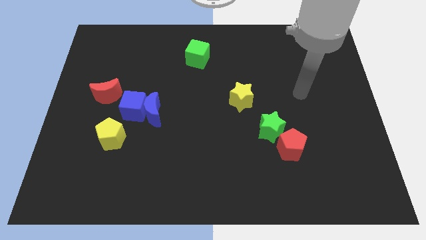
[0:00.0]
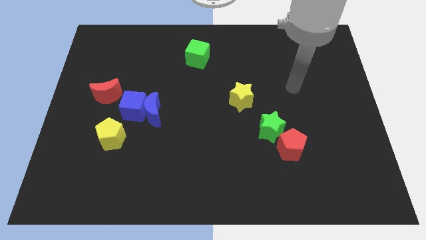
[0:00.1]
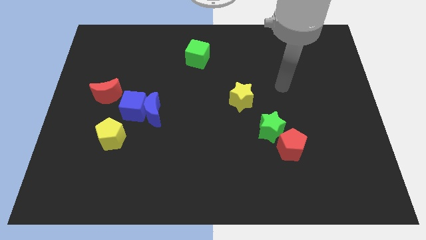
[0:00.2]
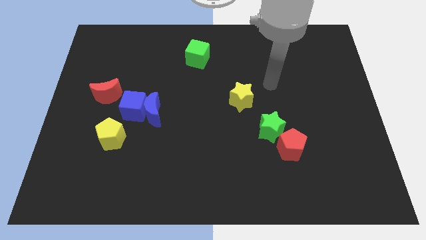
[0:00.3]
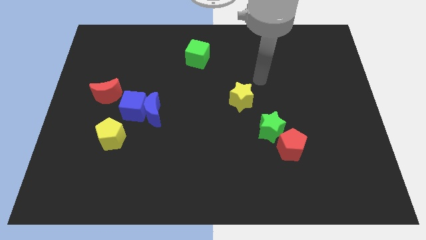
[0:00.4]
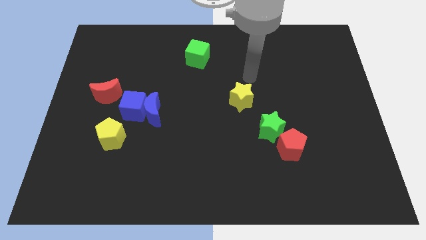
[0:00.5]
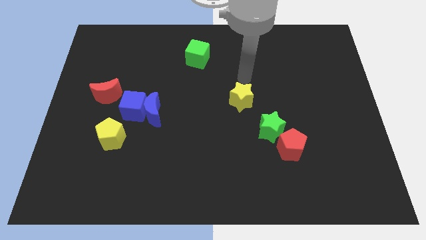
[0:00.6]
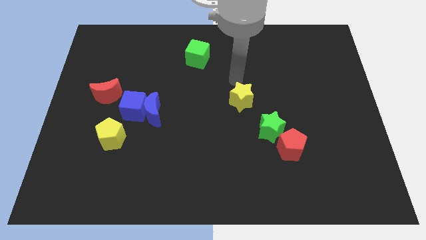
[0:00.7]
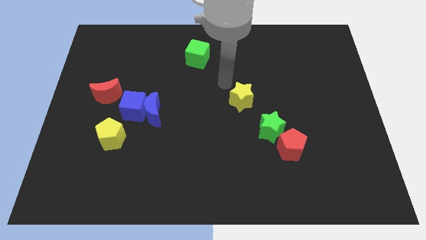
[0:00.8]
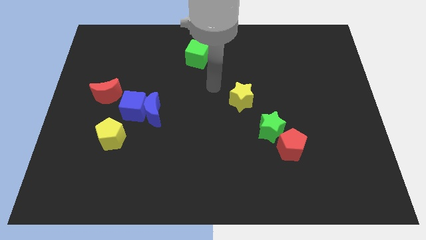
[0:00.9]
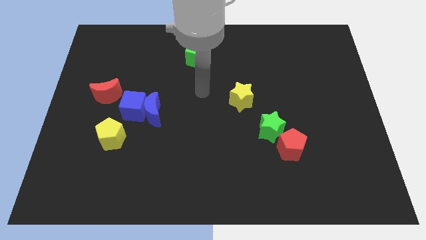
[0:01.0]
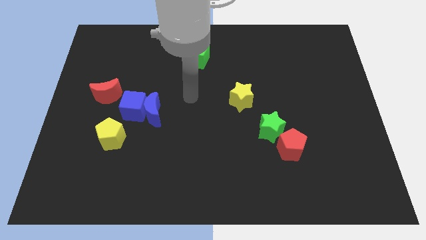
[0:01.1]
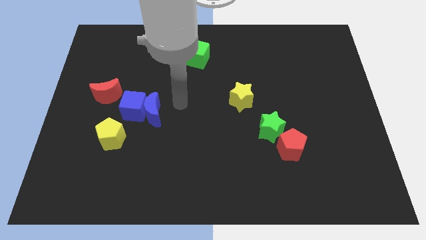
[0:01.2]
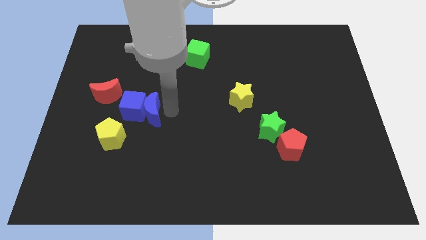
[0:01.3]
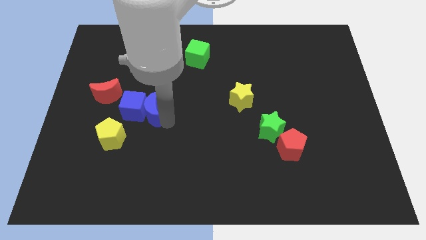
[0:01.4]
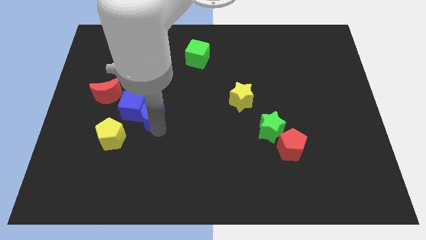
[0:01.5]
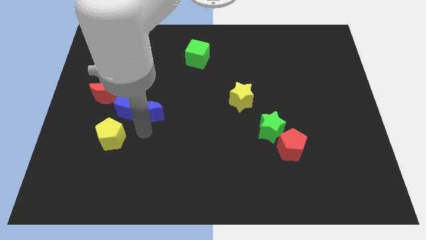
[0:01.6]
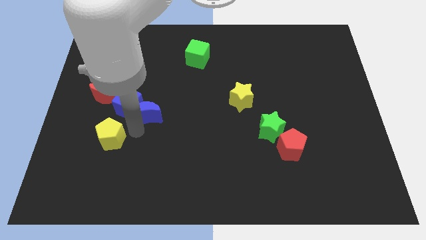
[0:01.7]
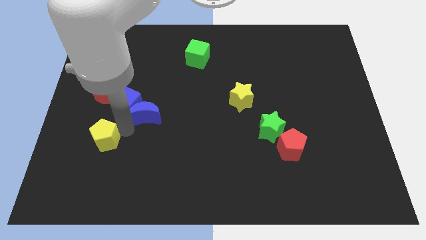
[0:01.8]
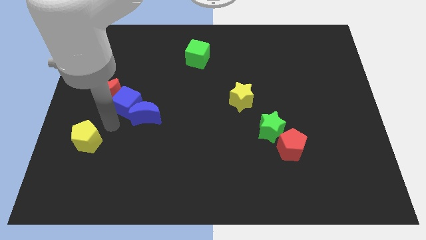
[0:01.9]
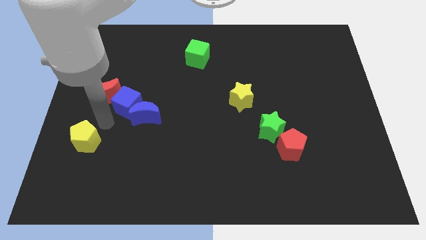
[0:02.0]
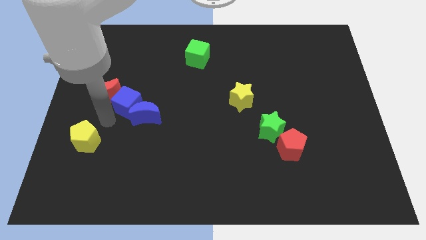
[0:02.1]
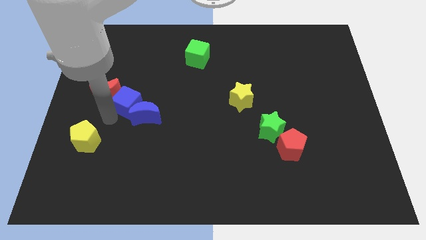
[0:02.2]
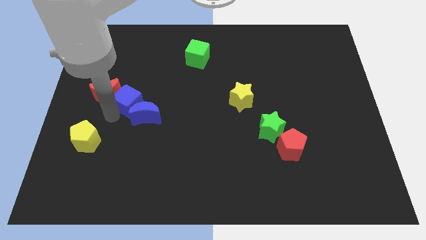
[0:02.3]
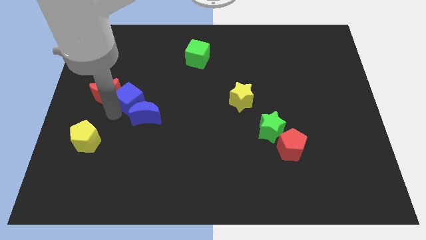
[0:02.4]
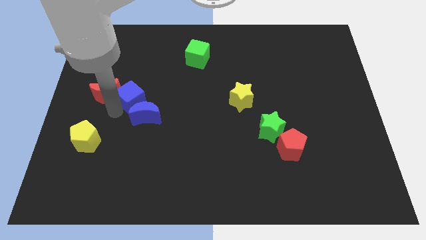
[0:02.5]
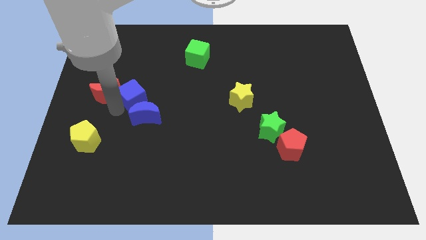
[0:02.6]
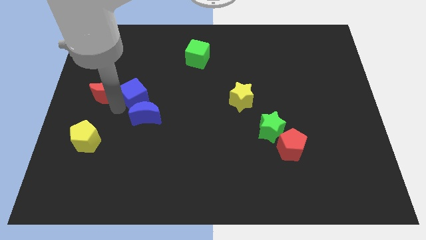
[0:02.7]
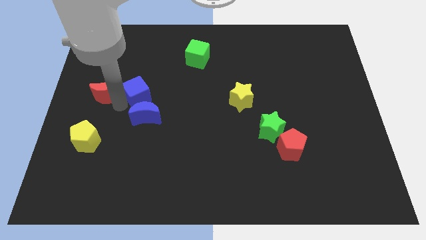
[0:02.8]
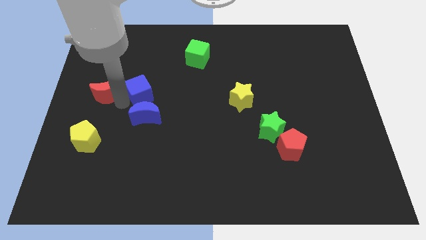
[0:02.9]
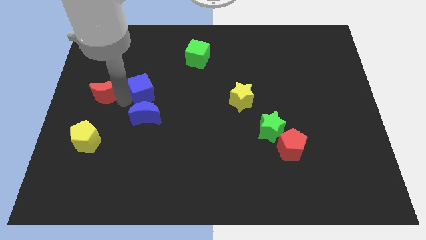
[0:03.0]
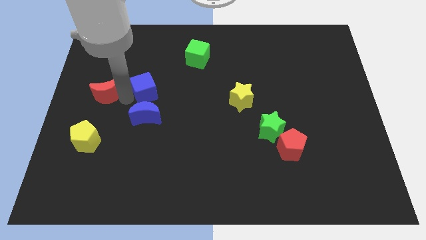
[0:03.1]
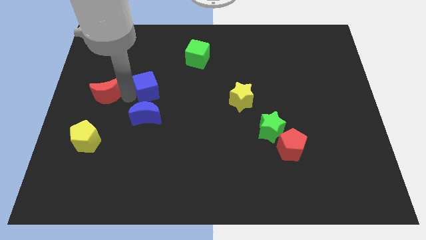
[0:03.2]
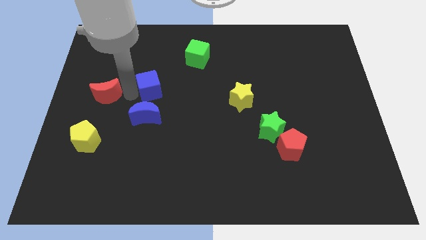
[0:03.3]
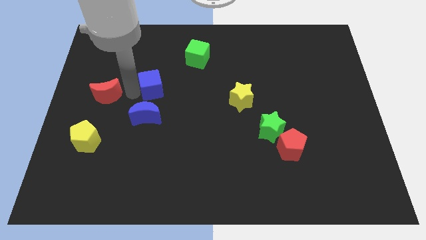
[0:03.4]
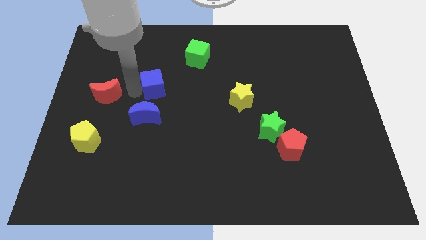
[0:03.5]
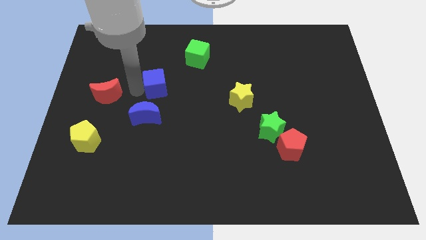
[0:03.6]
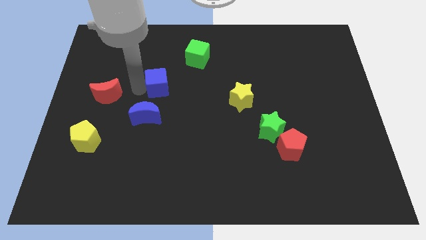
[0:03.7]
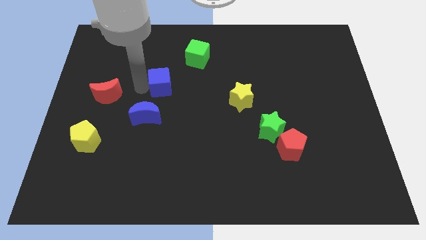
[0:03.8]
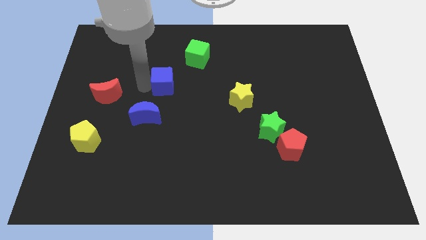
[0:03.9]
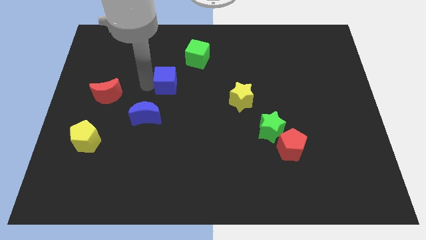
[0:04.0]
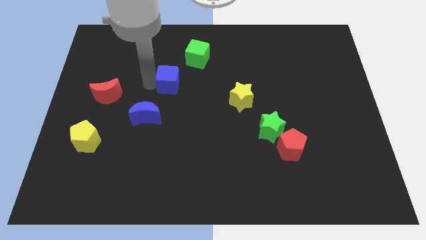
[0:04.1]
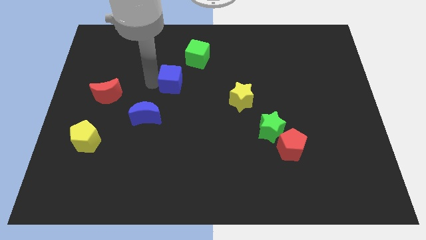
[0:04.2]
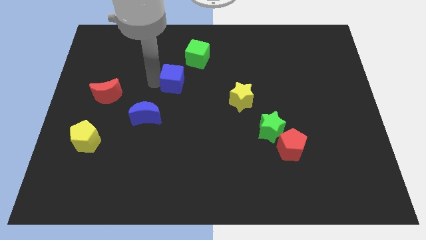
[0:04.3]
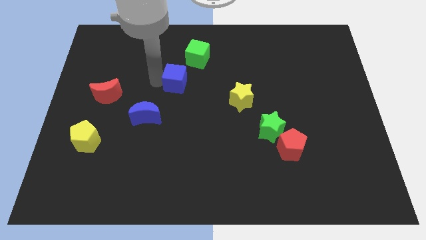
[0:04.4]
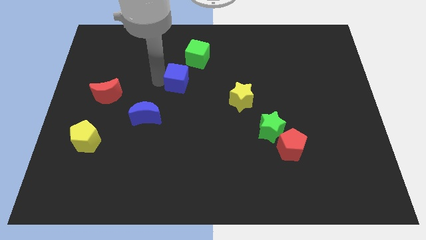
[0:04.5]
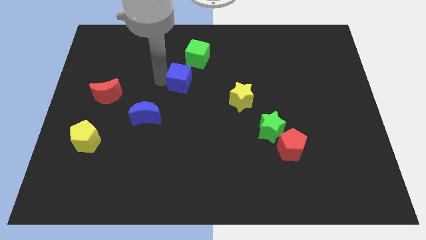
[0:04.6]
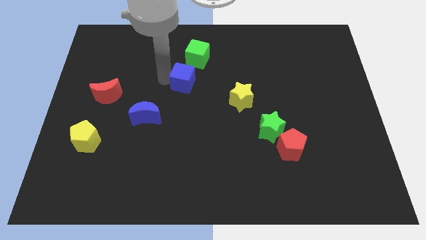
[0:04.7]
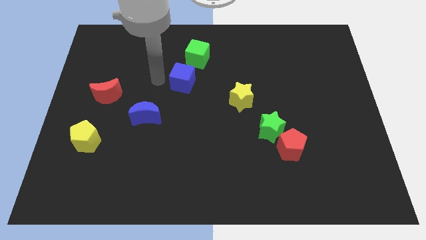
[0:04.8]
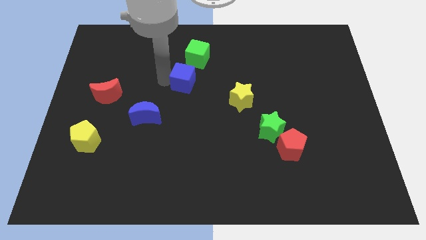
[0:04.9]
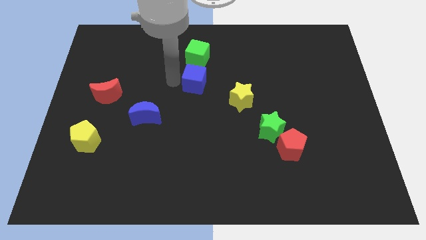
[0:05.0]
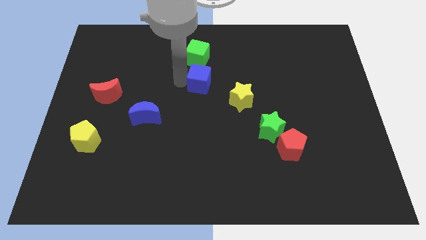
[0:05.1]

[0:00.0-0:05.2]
push the blue cube diagonally up and to the left of the yellow star

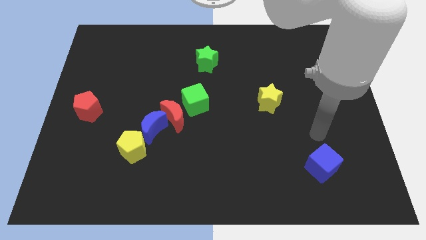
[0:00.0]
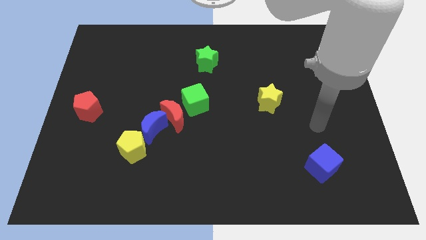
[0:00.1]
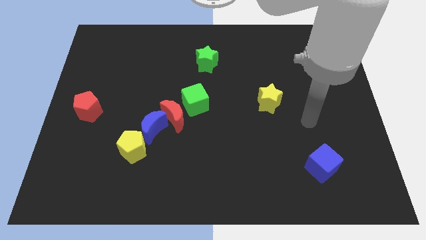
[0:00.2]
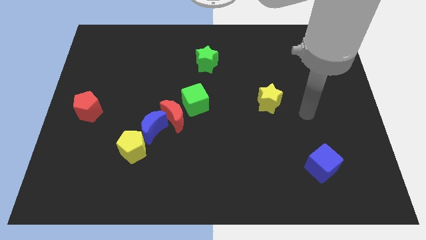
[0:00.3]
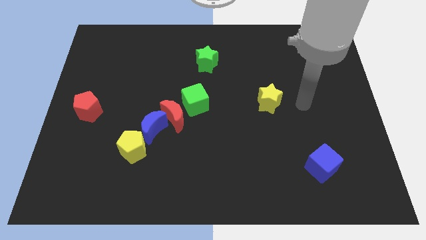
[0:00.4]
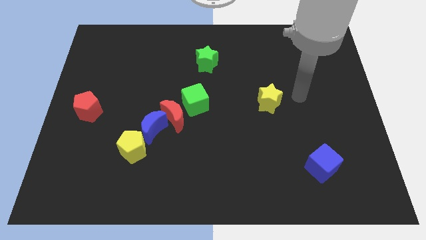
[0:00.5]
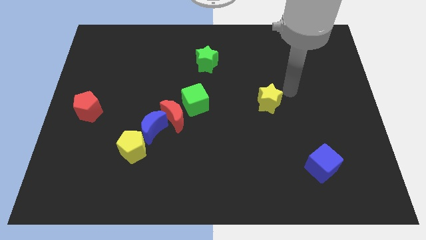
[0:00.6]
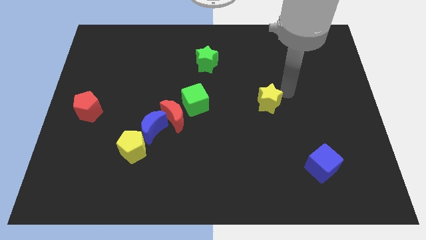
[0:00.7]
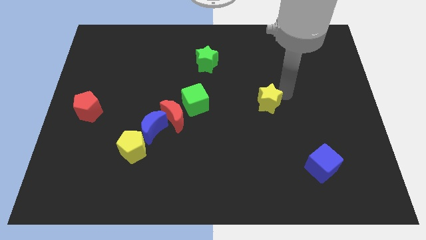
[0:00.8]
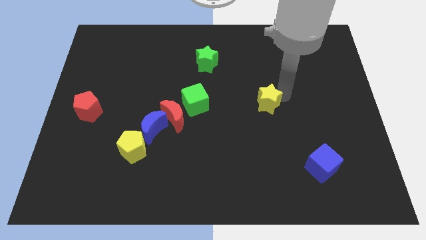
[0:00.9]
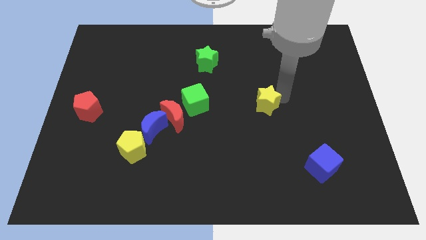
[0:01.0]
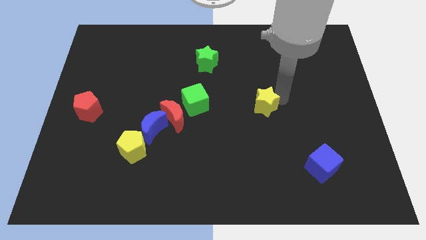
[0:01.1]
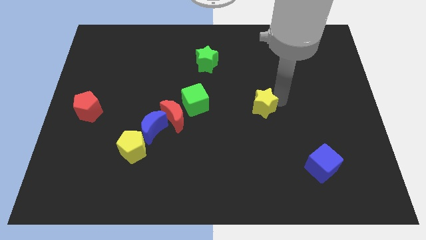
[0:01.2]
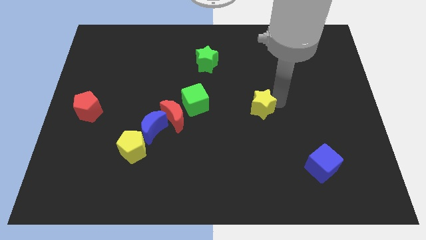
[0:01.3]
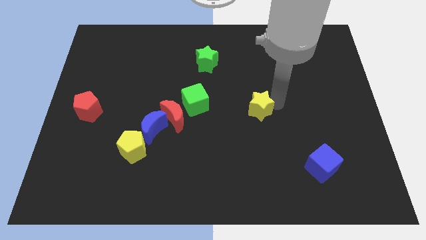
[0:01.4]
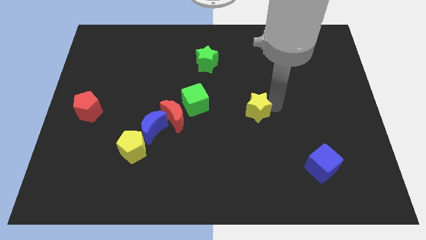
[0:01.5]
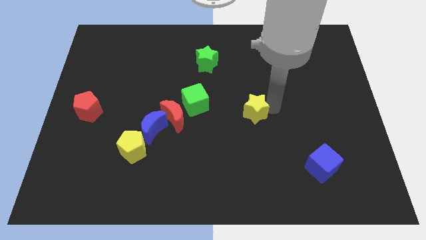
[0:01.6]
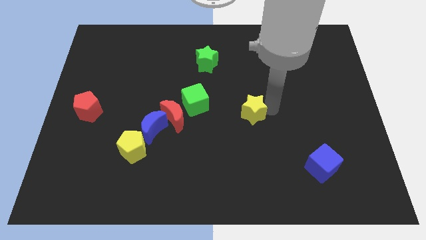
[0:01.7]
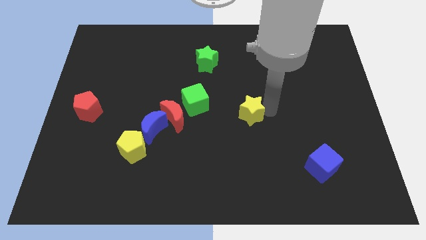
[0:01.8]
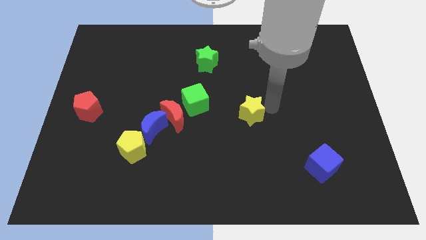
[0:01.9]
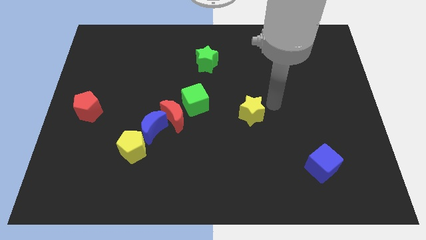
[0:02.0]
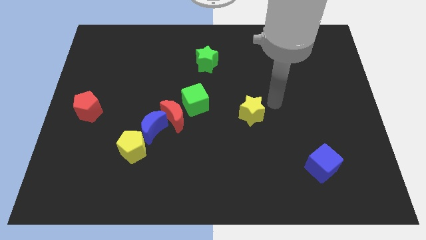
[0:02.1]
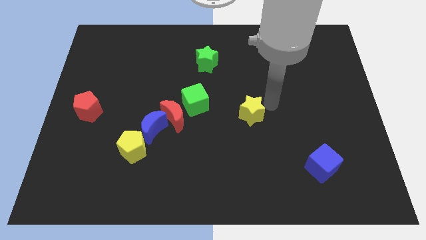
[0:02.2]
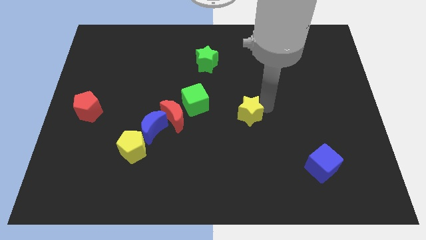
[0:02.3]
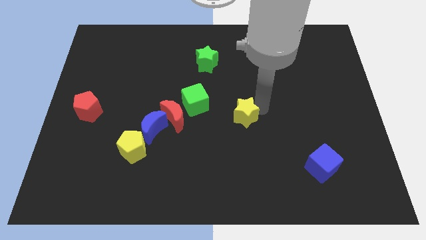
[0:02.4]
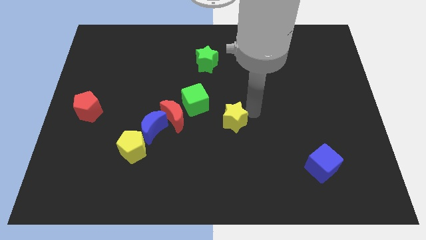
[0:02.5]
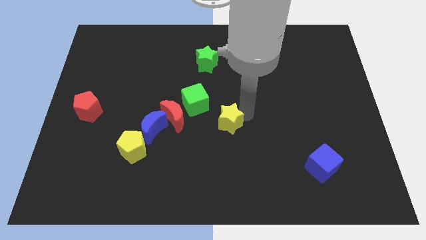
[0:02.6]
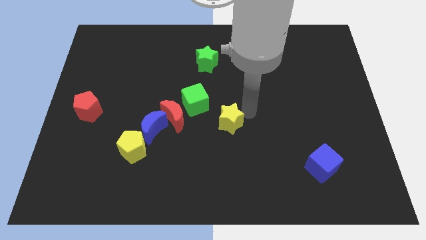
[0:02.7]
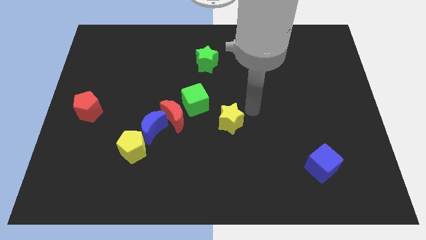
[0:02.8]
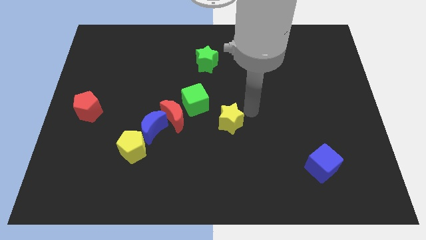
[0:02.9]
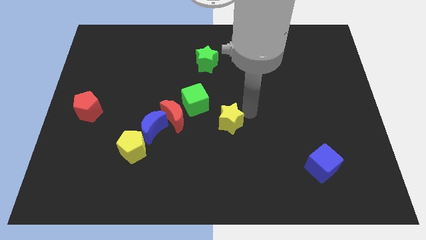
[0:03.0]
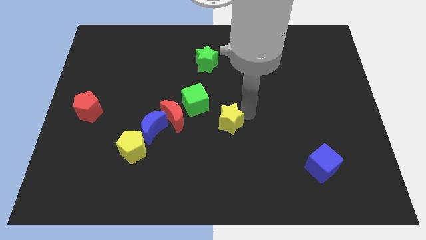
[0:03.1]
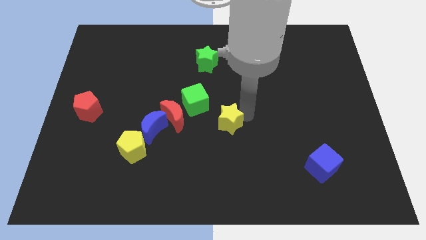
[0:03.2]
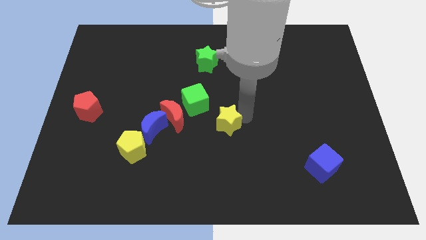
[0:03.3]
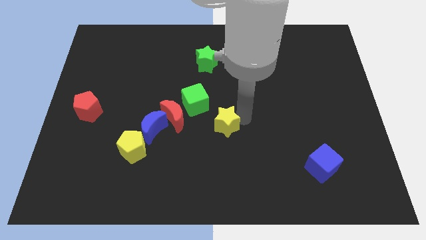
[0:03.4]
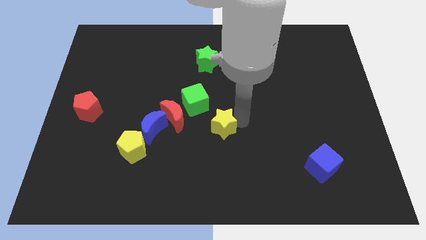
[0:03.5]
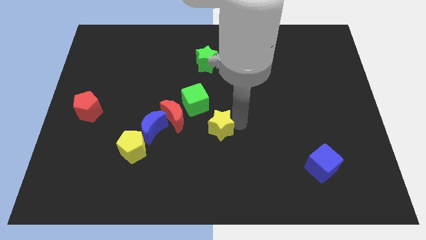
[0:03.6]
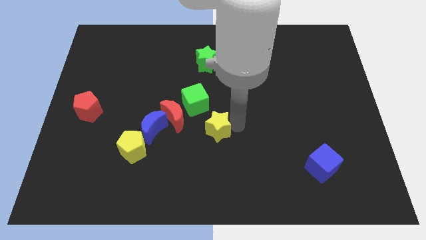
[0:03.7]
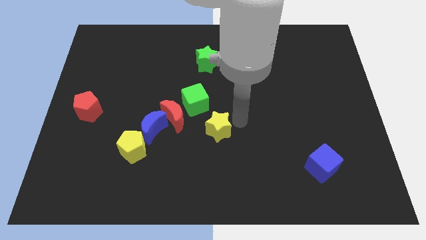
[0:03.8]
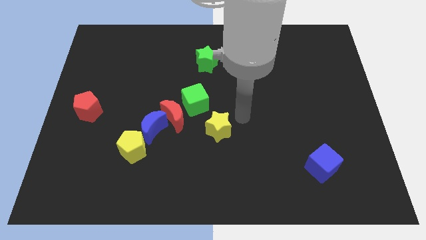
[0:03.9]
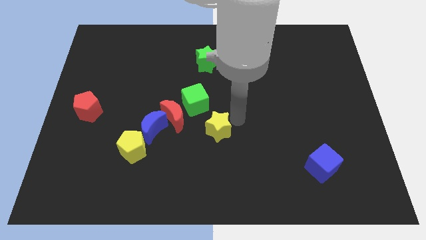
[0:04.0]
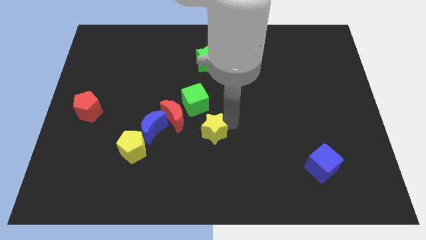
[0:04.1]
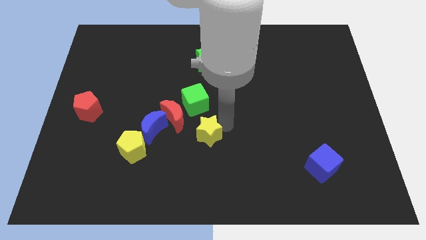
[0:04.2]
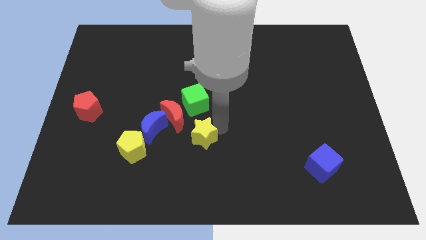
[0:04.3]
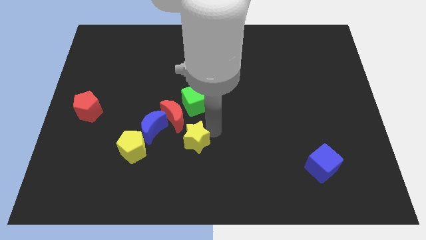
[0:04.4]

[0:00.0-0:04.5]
move the yellow star to the right side of the yellow pentagon
